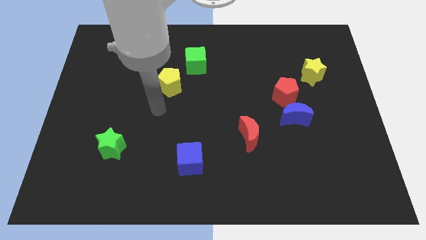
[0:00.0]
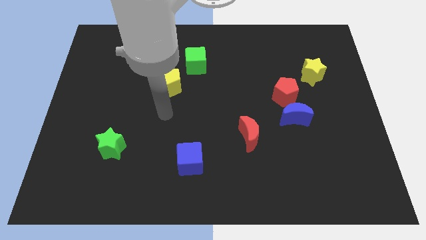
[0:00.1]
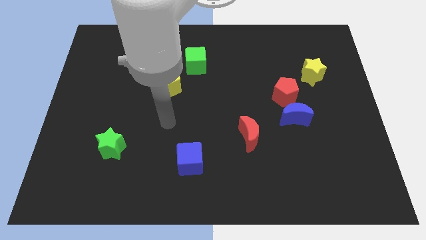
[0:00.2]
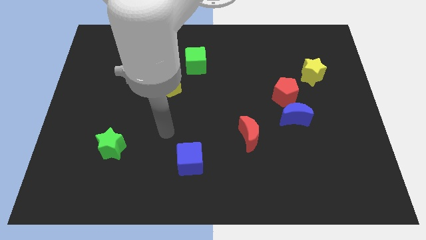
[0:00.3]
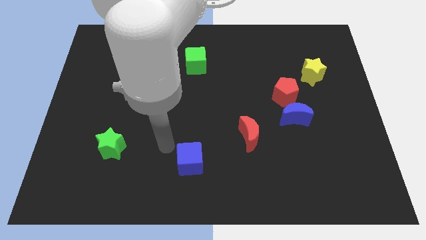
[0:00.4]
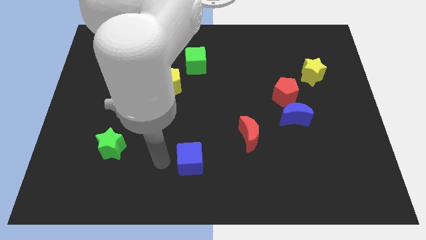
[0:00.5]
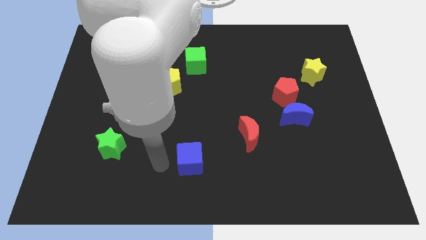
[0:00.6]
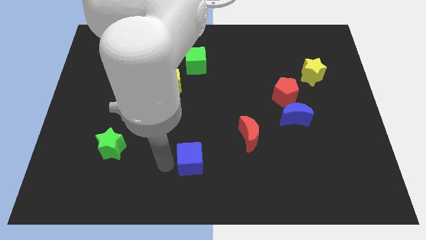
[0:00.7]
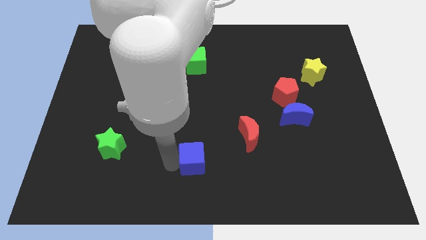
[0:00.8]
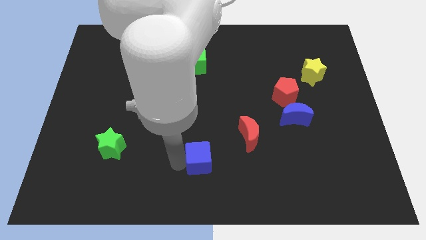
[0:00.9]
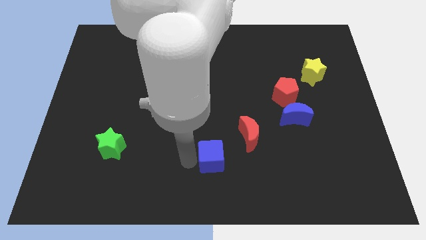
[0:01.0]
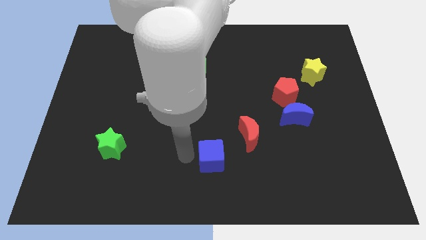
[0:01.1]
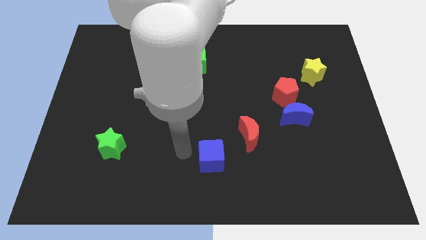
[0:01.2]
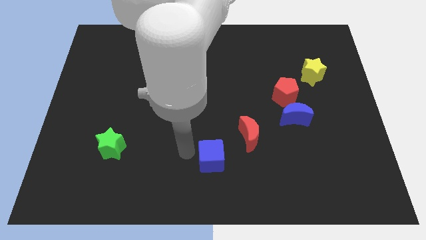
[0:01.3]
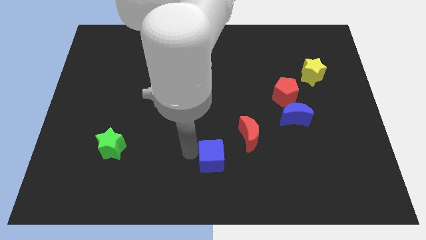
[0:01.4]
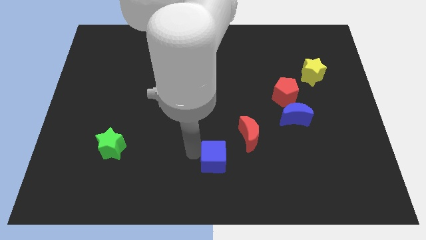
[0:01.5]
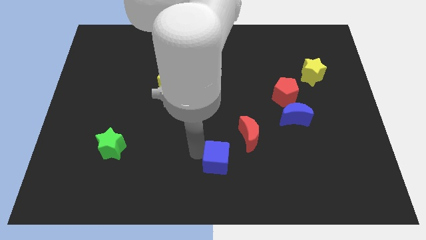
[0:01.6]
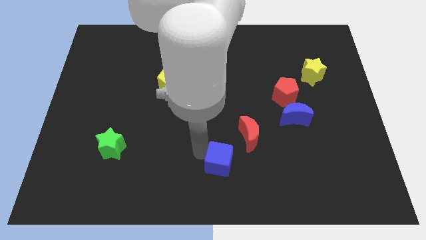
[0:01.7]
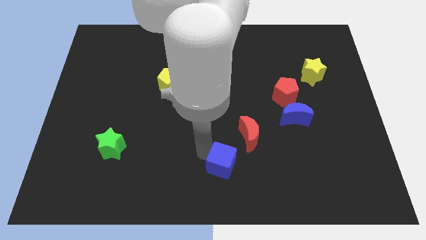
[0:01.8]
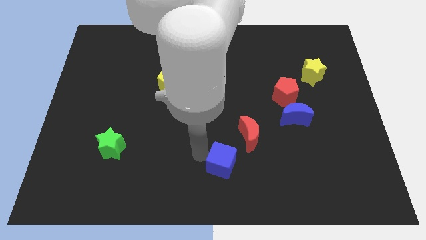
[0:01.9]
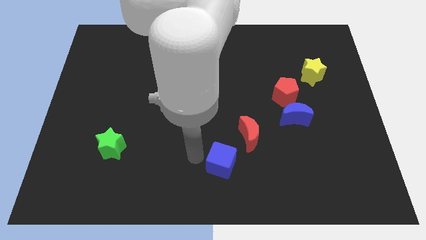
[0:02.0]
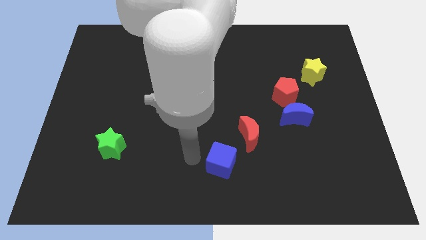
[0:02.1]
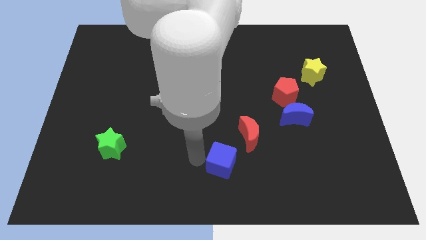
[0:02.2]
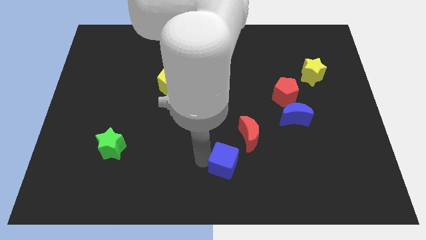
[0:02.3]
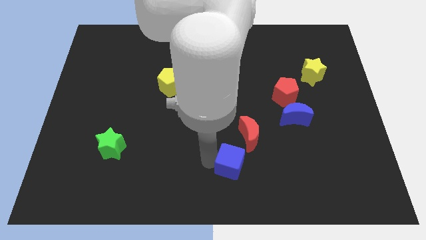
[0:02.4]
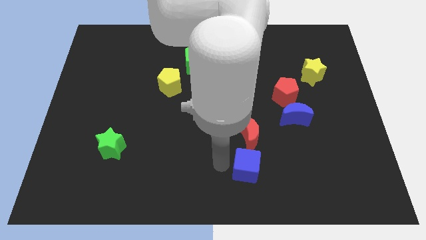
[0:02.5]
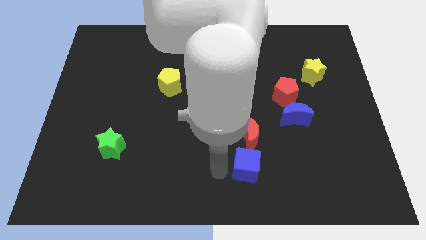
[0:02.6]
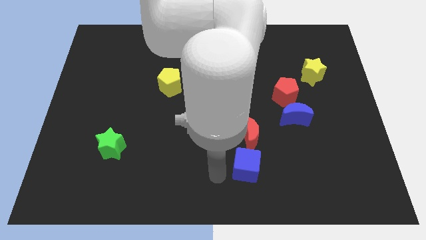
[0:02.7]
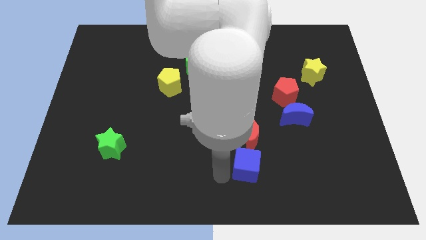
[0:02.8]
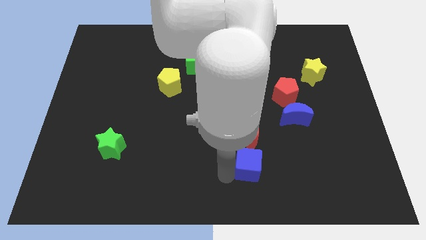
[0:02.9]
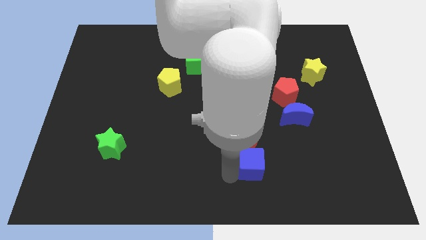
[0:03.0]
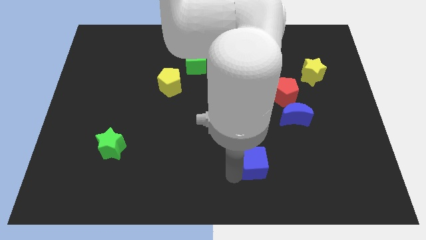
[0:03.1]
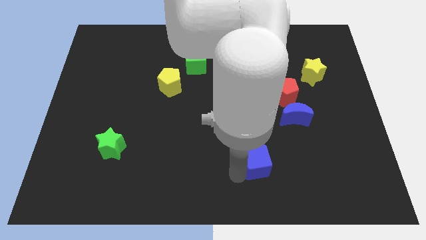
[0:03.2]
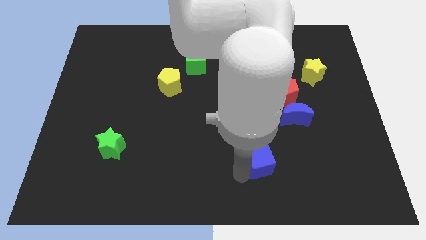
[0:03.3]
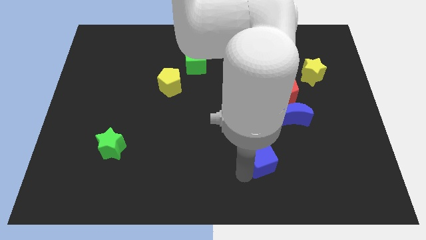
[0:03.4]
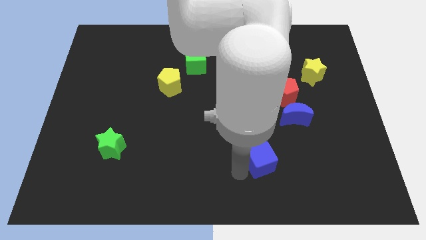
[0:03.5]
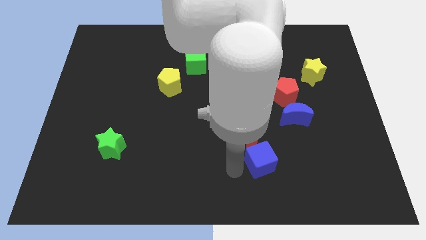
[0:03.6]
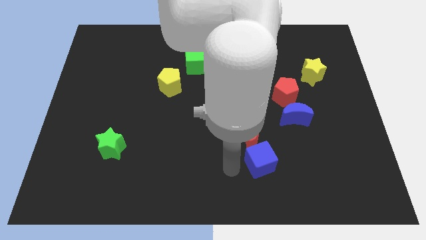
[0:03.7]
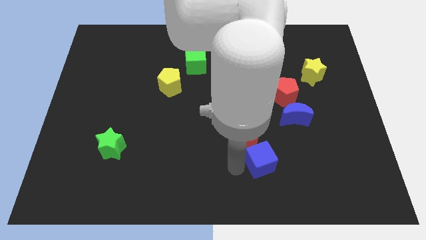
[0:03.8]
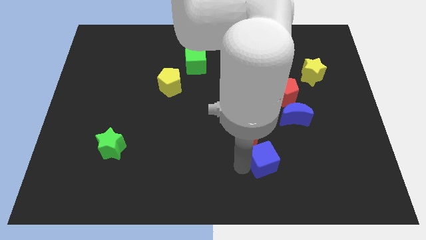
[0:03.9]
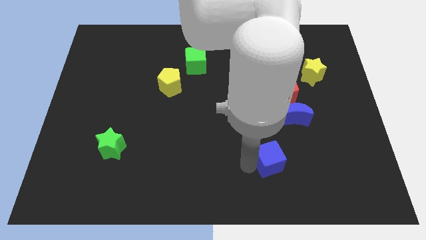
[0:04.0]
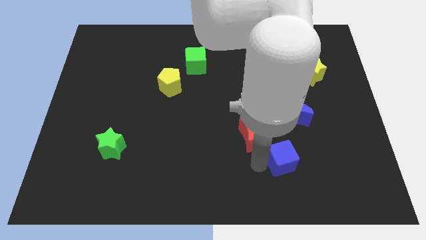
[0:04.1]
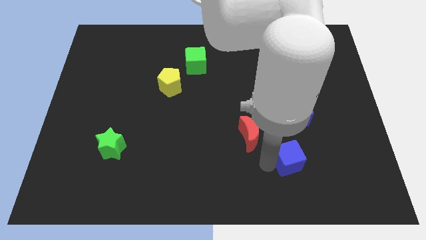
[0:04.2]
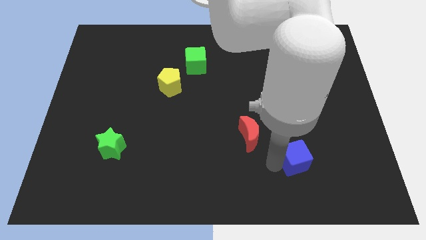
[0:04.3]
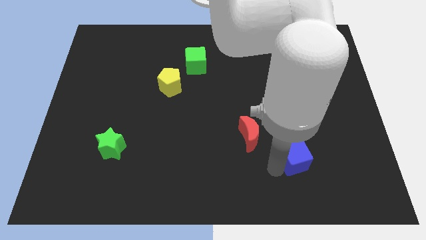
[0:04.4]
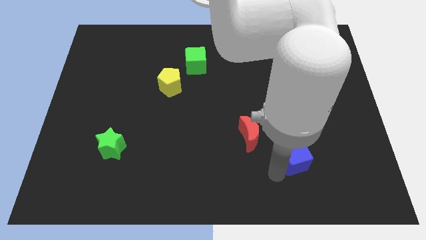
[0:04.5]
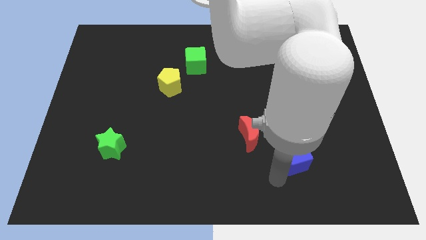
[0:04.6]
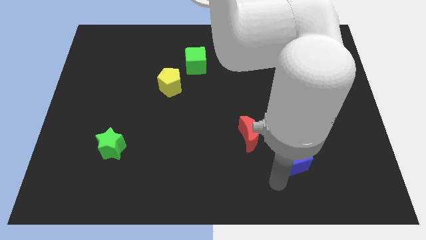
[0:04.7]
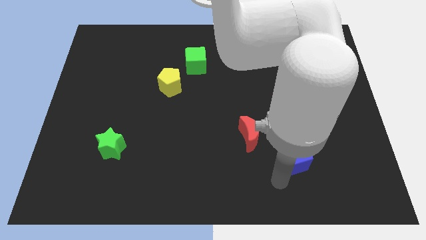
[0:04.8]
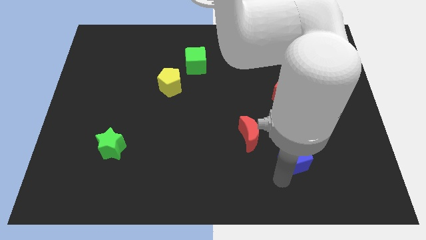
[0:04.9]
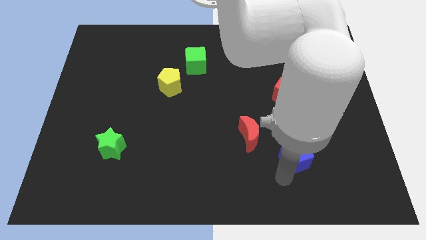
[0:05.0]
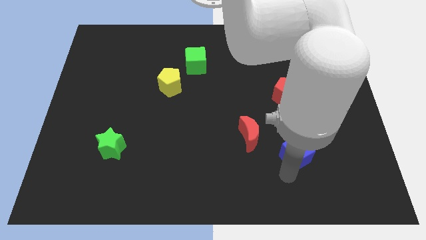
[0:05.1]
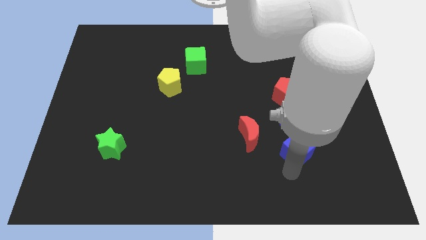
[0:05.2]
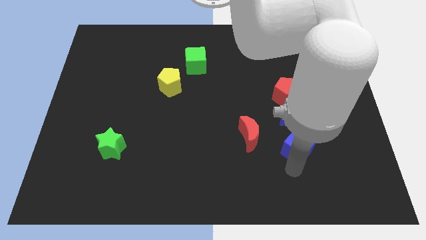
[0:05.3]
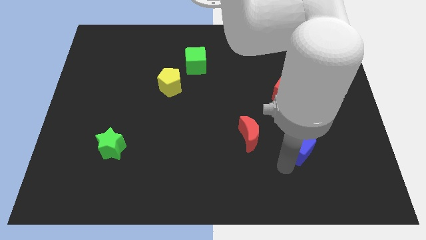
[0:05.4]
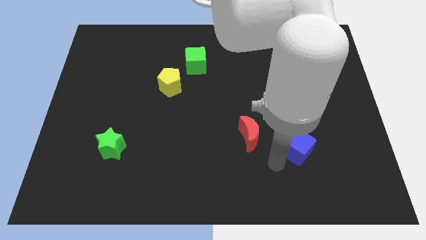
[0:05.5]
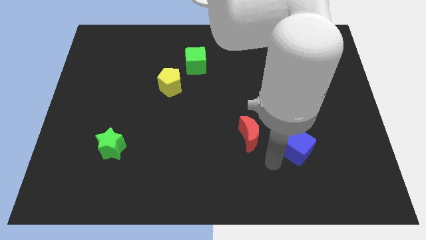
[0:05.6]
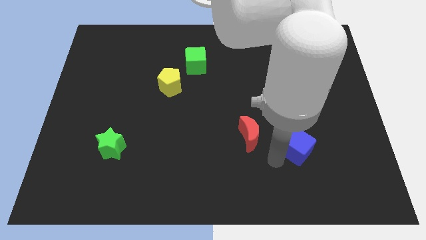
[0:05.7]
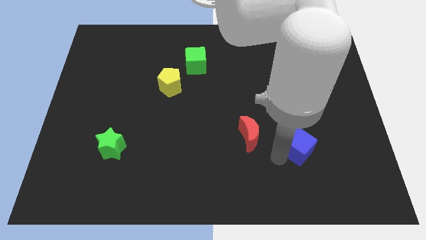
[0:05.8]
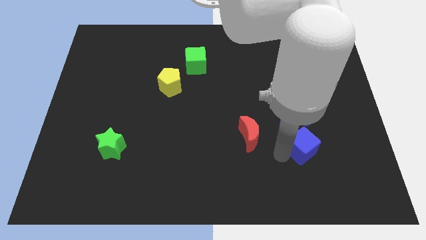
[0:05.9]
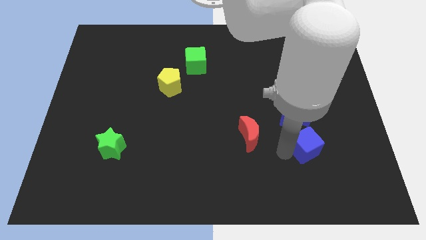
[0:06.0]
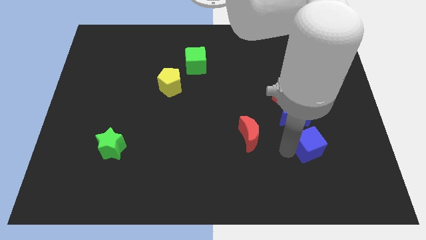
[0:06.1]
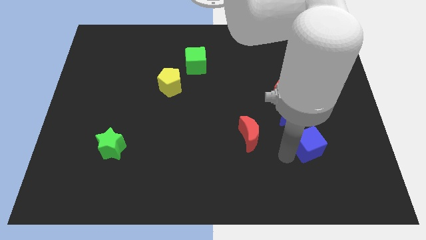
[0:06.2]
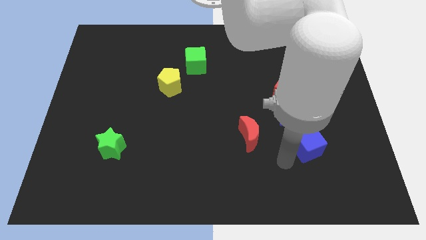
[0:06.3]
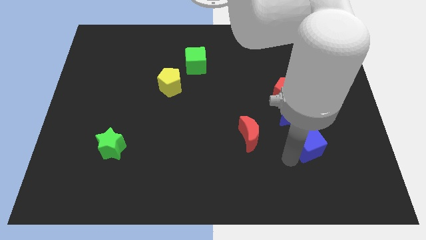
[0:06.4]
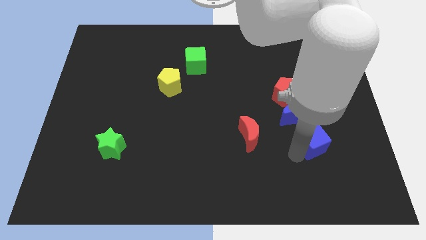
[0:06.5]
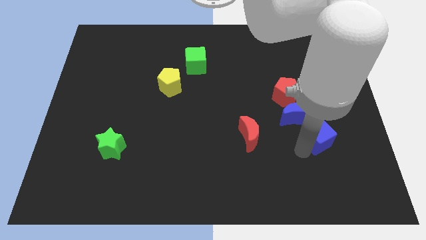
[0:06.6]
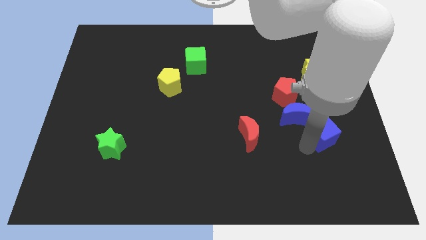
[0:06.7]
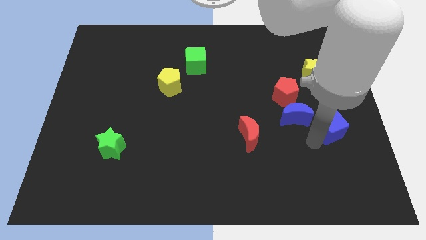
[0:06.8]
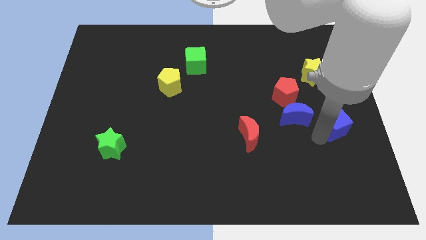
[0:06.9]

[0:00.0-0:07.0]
put the blue cube to the right side of the board

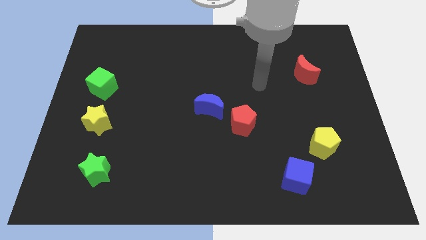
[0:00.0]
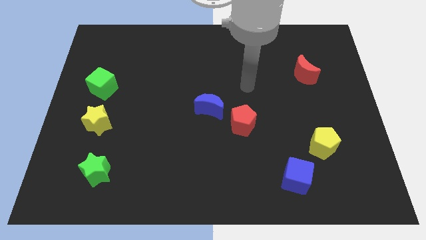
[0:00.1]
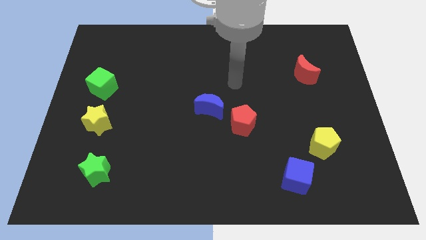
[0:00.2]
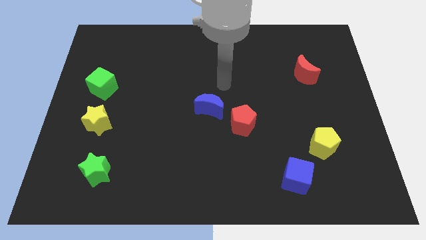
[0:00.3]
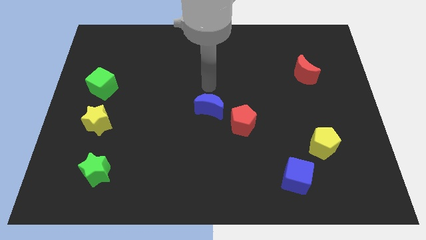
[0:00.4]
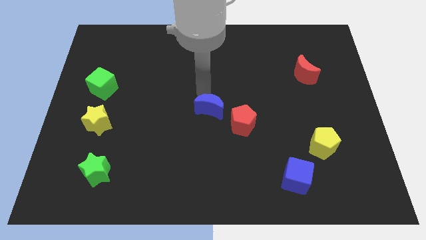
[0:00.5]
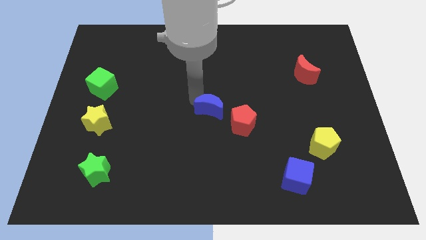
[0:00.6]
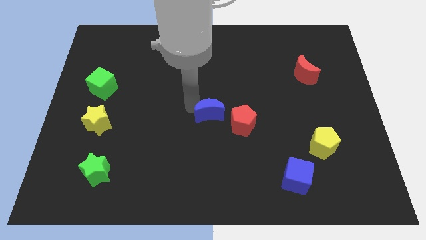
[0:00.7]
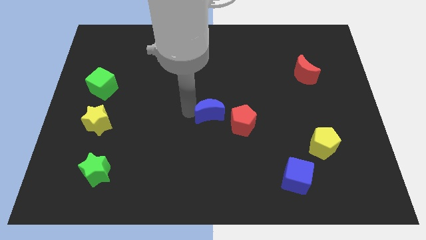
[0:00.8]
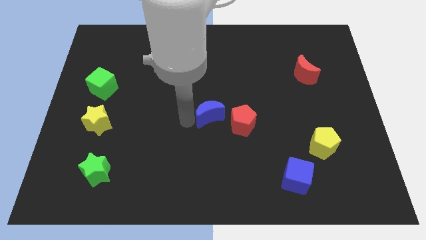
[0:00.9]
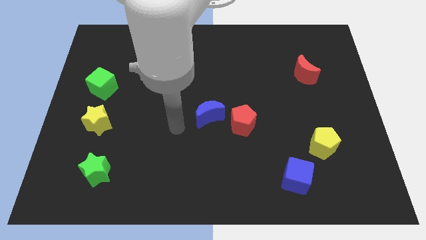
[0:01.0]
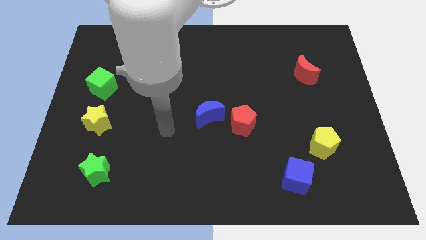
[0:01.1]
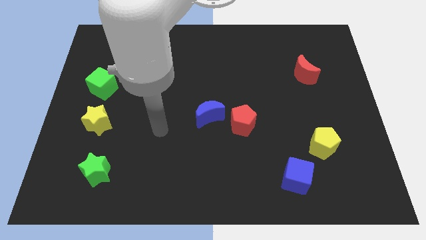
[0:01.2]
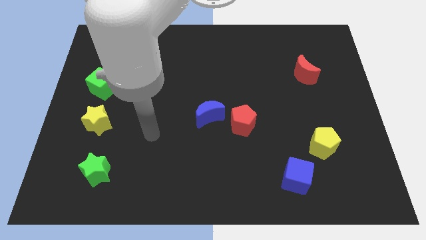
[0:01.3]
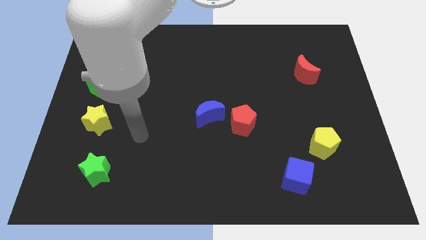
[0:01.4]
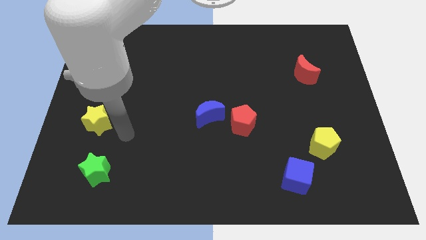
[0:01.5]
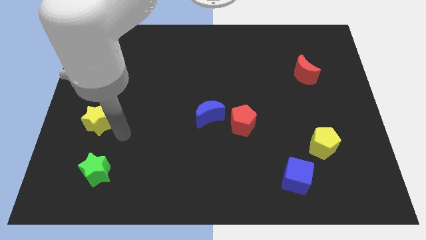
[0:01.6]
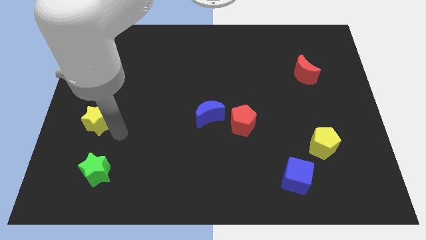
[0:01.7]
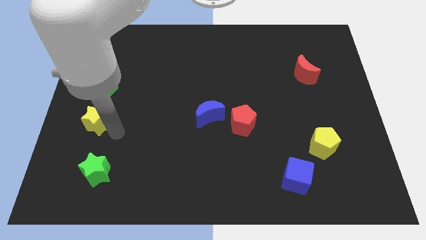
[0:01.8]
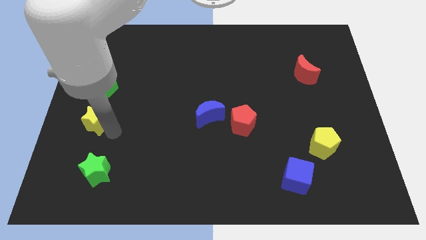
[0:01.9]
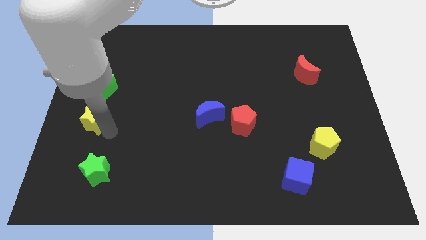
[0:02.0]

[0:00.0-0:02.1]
slide the yellow star to the center left
